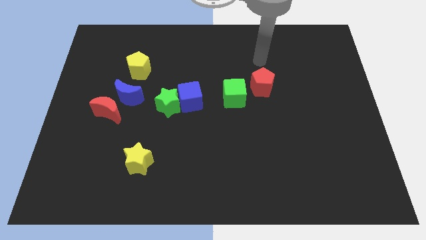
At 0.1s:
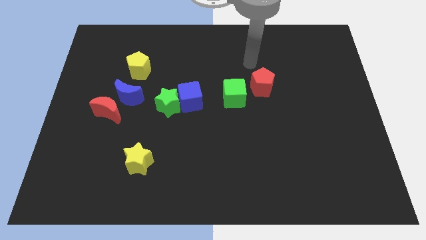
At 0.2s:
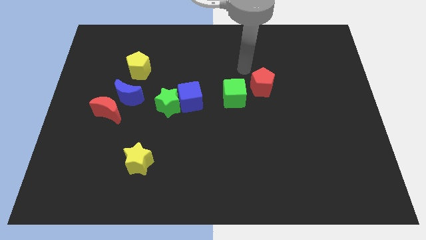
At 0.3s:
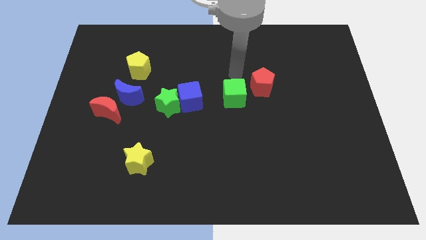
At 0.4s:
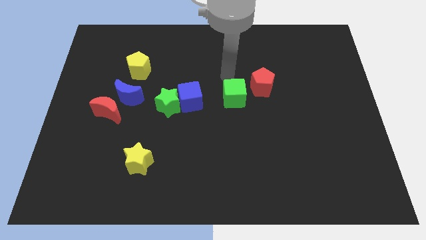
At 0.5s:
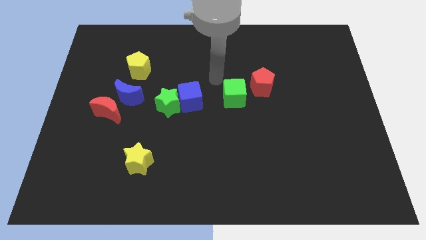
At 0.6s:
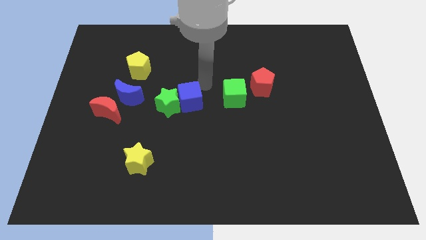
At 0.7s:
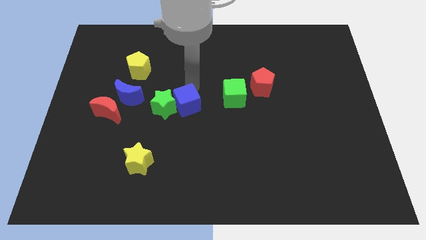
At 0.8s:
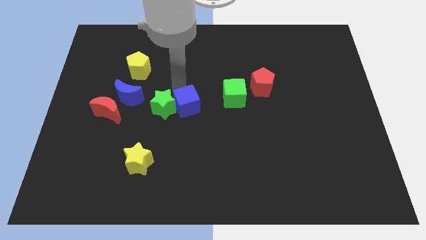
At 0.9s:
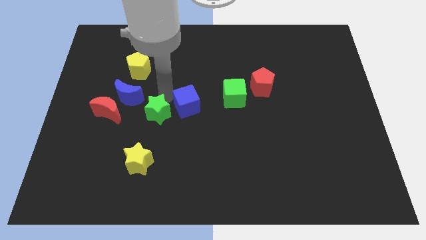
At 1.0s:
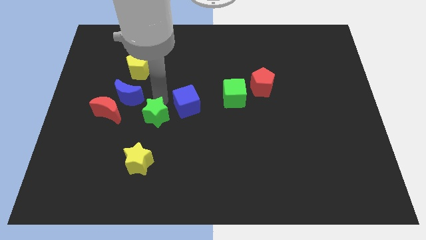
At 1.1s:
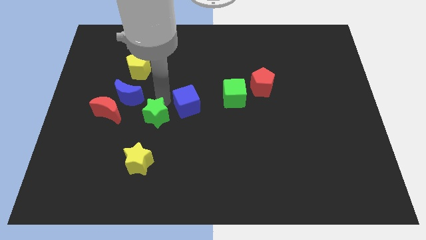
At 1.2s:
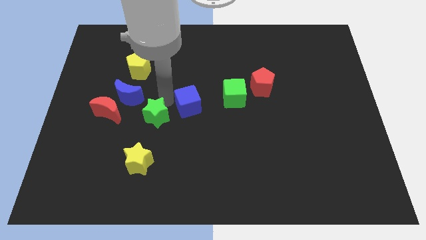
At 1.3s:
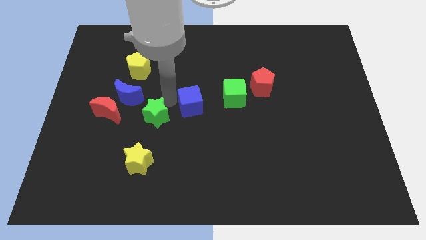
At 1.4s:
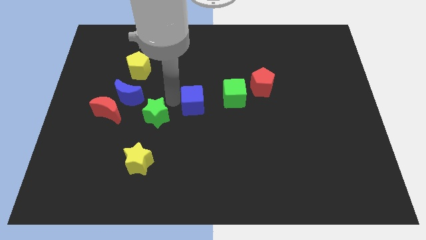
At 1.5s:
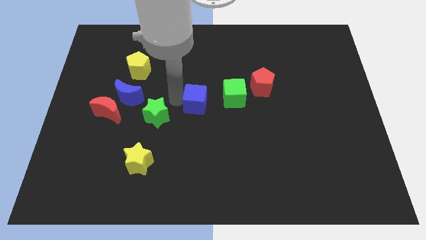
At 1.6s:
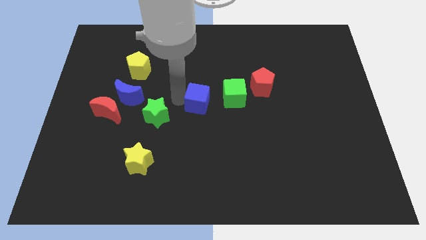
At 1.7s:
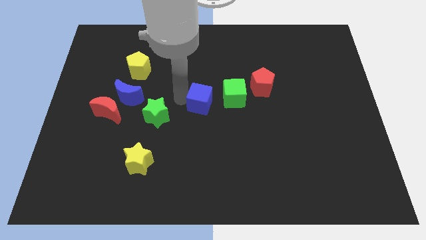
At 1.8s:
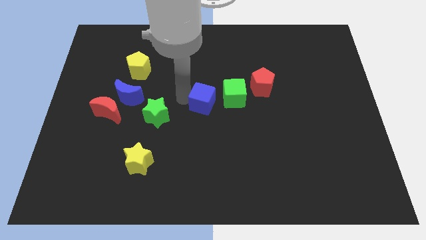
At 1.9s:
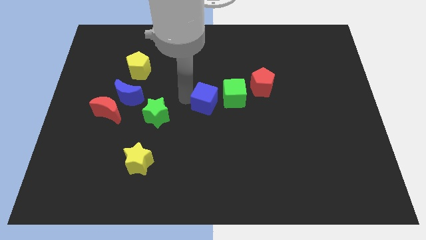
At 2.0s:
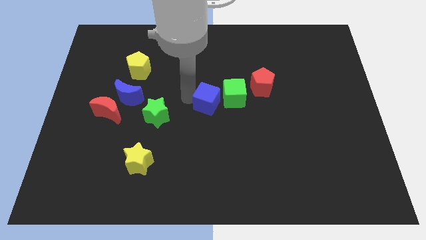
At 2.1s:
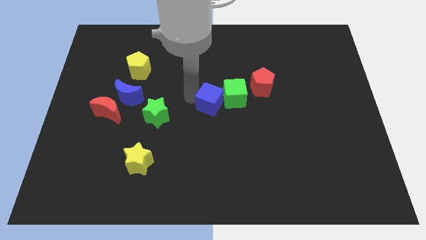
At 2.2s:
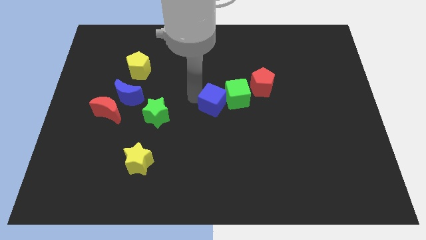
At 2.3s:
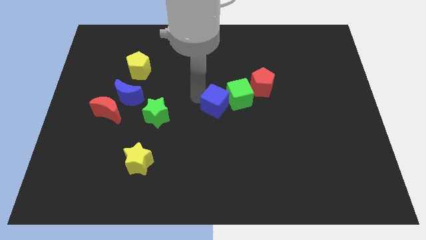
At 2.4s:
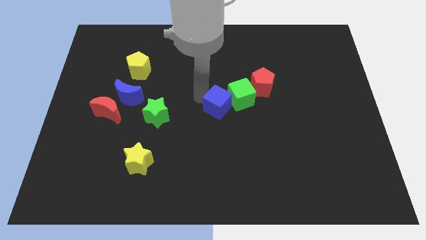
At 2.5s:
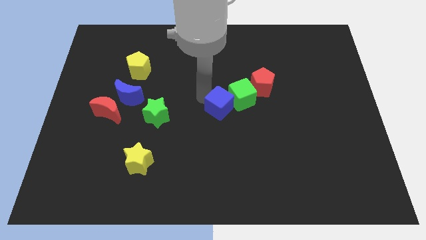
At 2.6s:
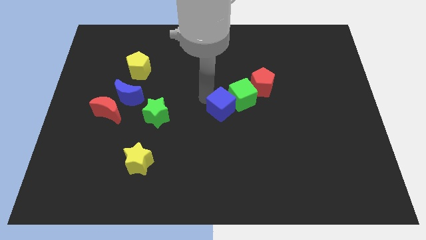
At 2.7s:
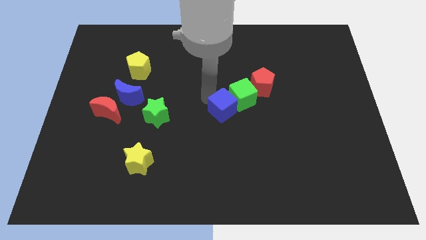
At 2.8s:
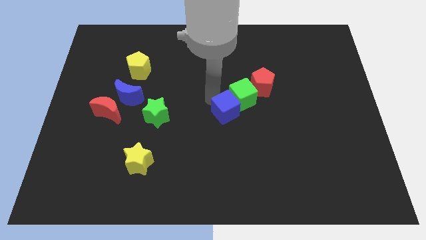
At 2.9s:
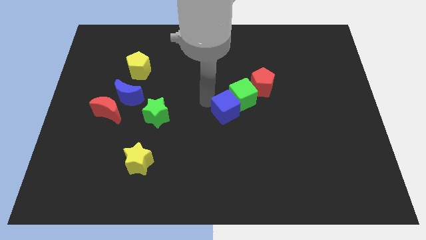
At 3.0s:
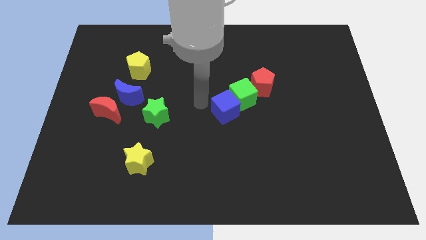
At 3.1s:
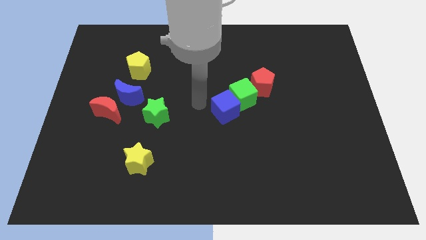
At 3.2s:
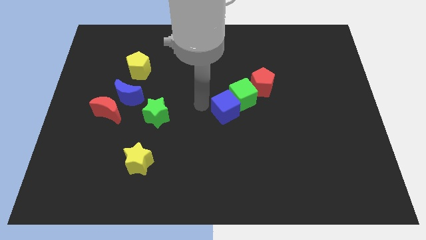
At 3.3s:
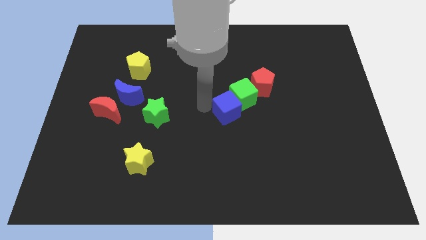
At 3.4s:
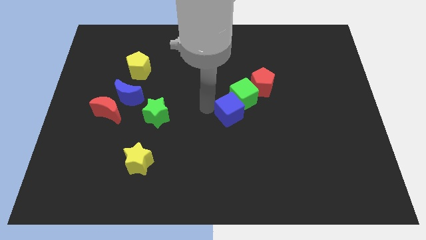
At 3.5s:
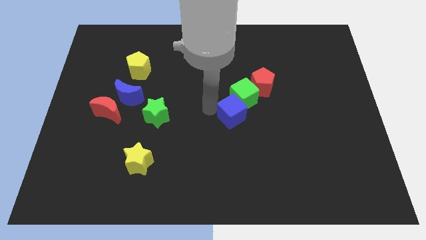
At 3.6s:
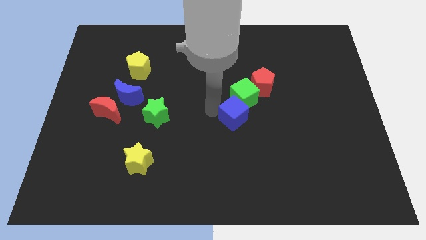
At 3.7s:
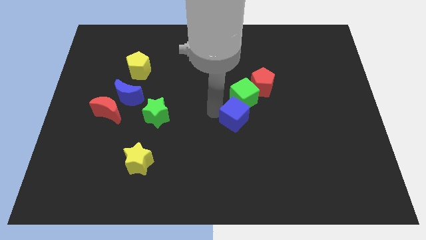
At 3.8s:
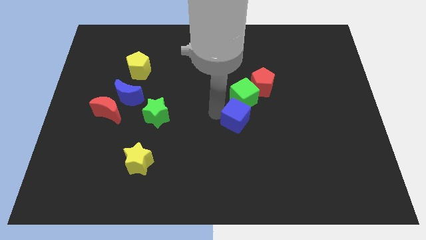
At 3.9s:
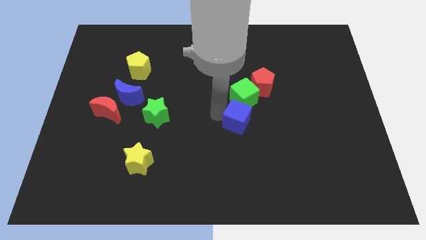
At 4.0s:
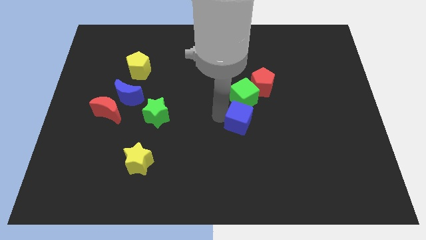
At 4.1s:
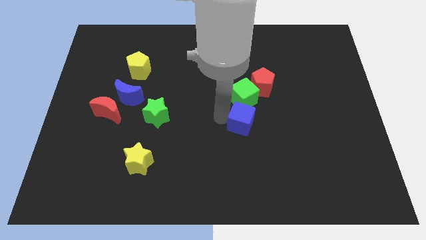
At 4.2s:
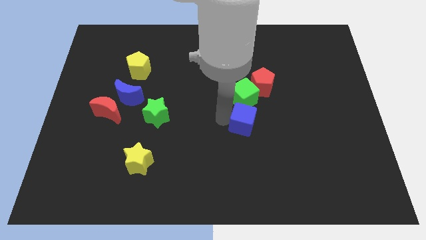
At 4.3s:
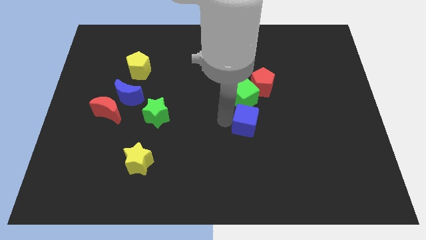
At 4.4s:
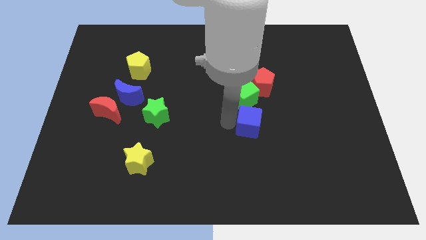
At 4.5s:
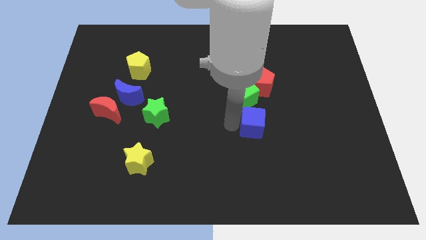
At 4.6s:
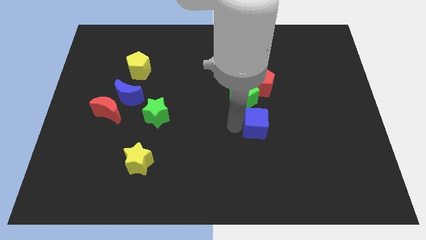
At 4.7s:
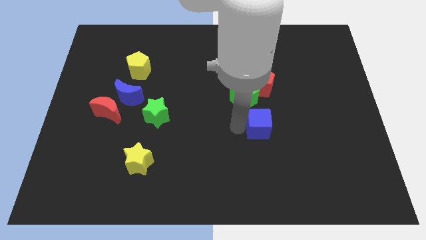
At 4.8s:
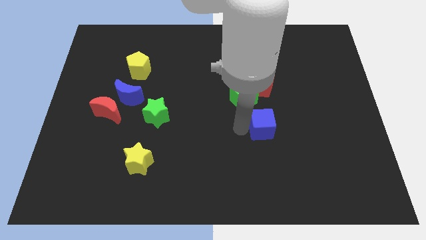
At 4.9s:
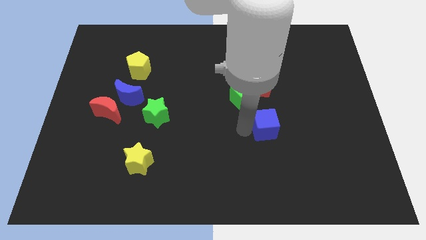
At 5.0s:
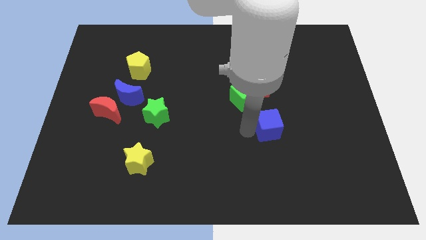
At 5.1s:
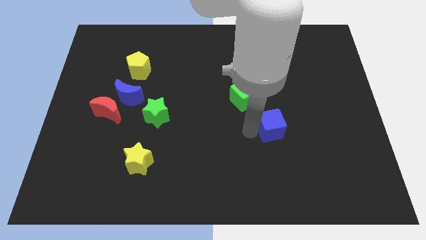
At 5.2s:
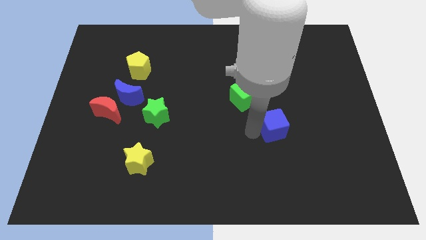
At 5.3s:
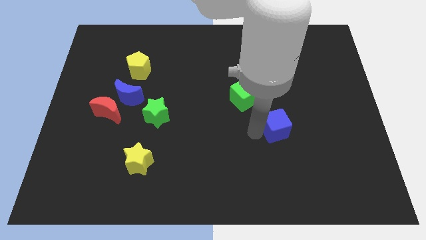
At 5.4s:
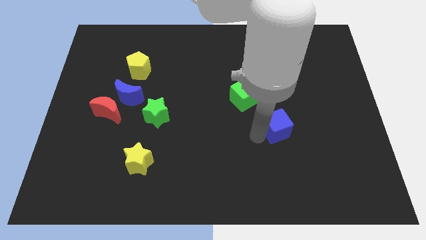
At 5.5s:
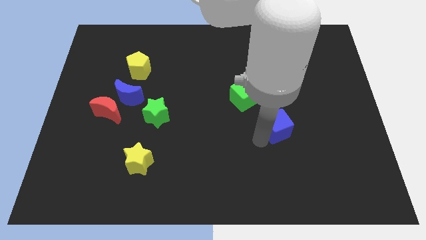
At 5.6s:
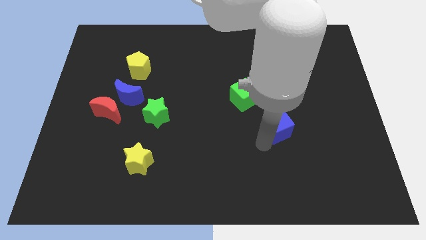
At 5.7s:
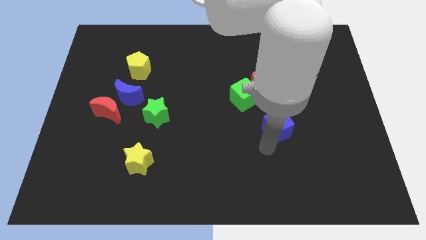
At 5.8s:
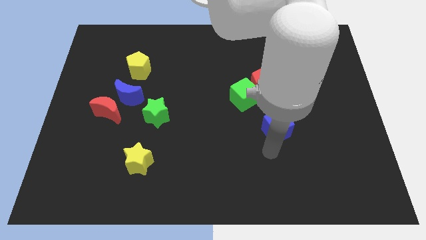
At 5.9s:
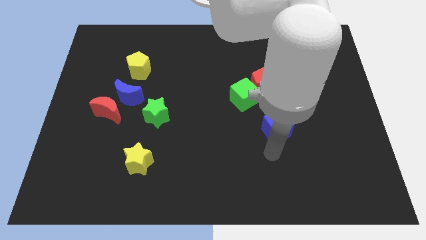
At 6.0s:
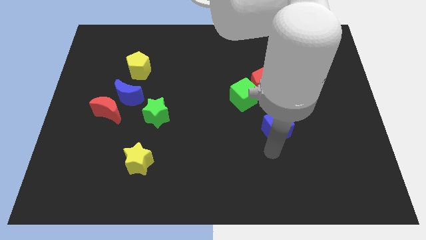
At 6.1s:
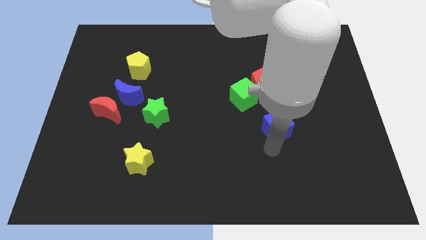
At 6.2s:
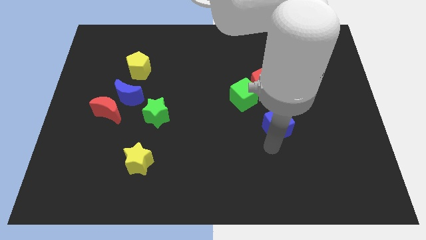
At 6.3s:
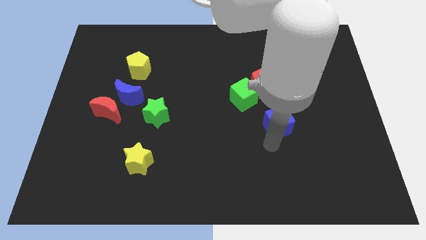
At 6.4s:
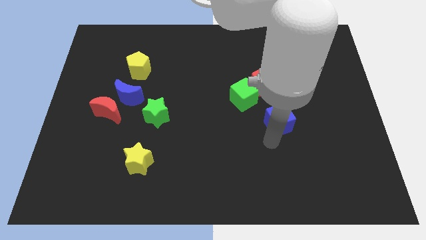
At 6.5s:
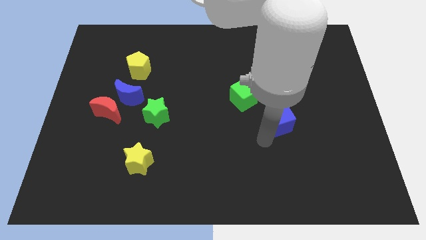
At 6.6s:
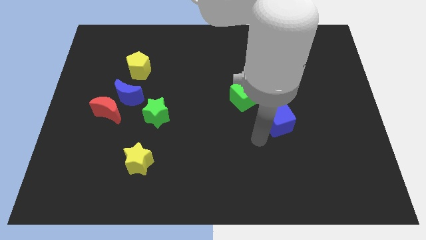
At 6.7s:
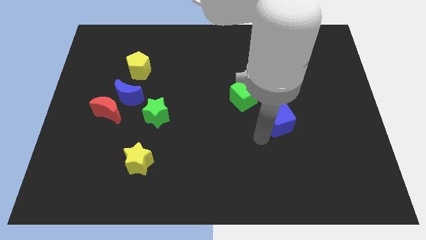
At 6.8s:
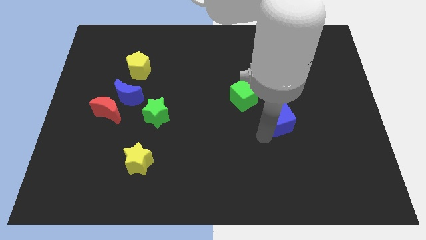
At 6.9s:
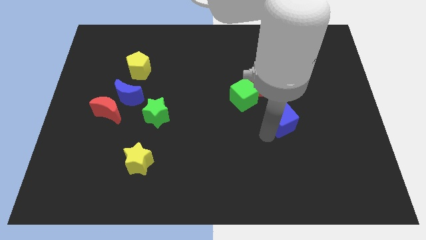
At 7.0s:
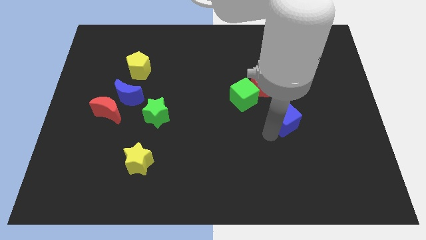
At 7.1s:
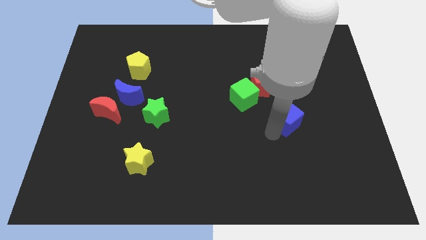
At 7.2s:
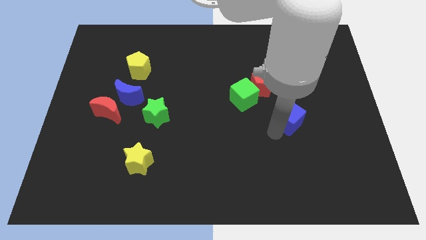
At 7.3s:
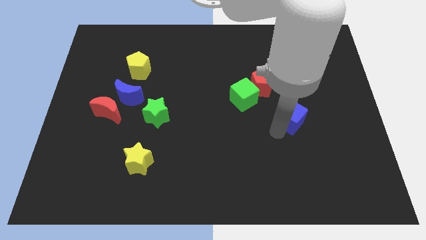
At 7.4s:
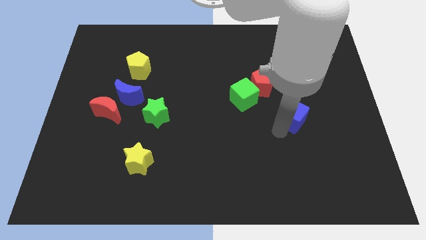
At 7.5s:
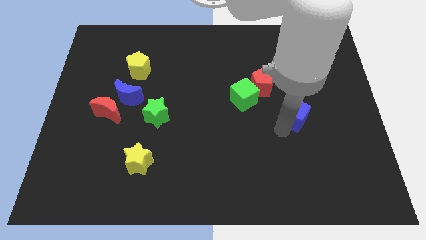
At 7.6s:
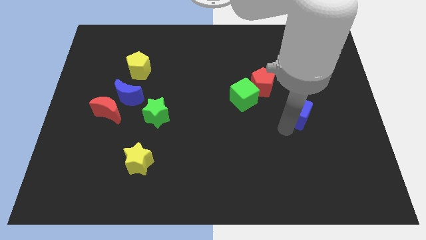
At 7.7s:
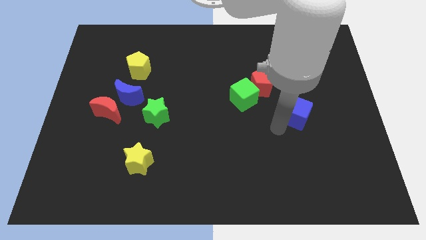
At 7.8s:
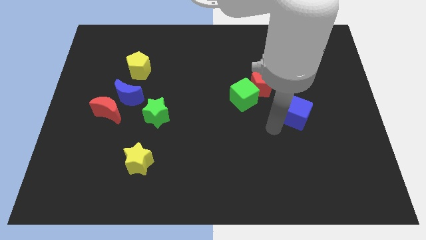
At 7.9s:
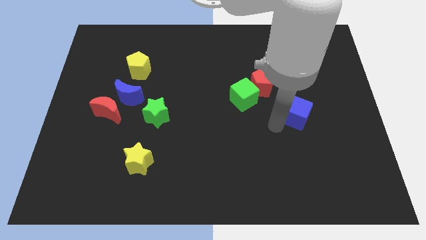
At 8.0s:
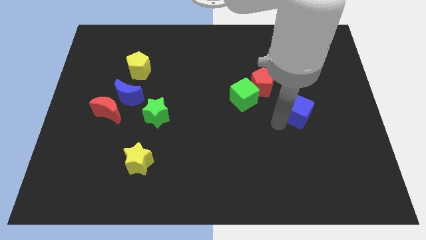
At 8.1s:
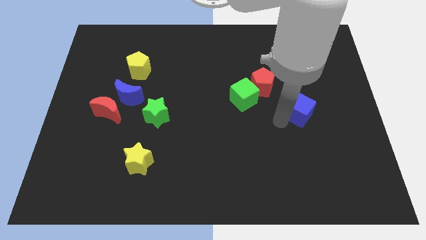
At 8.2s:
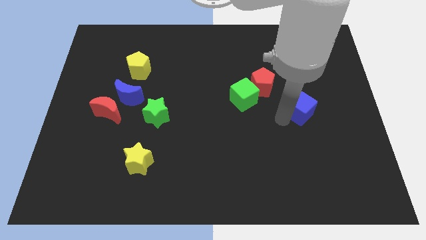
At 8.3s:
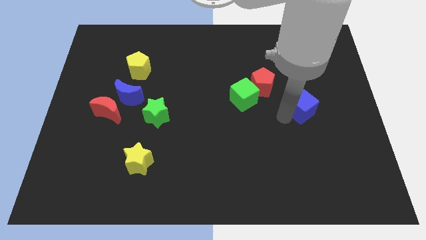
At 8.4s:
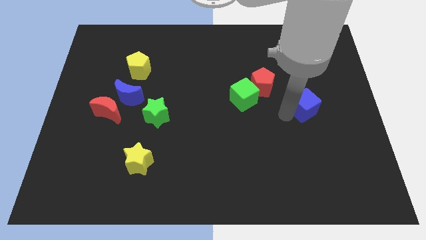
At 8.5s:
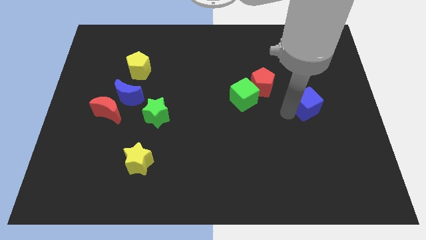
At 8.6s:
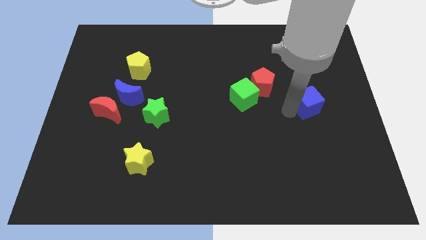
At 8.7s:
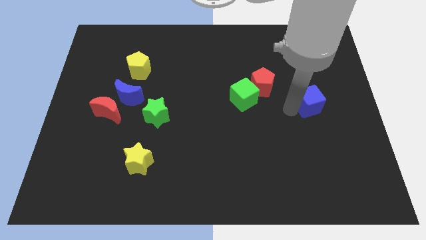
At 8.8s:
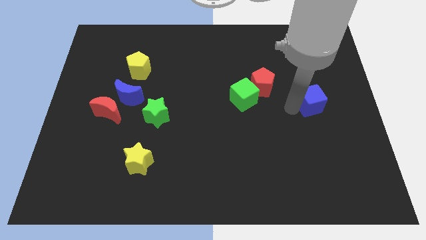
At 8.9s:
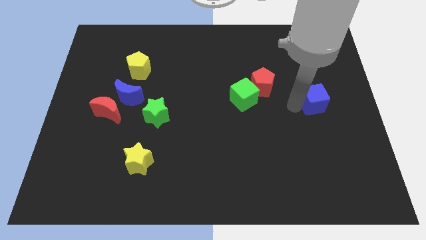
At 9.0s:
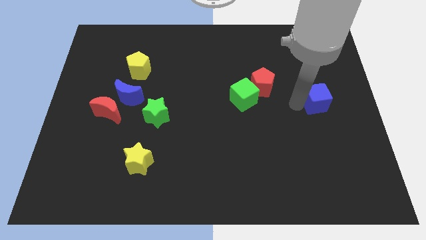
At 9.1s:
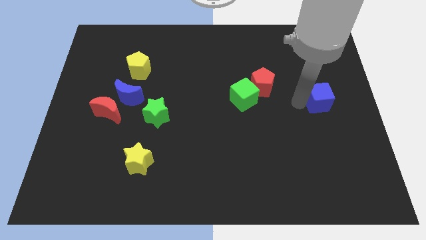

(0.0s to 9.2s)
put the blue cube to the right side of the board
